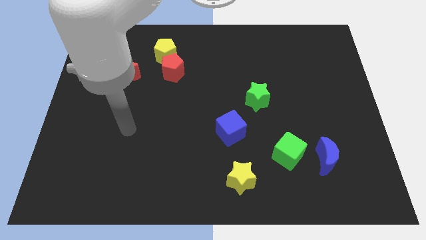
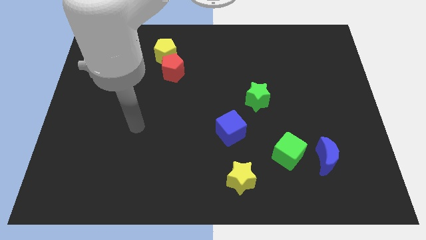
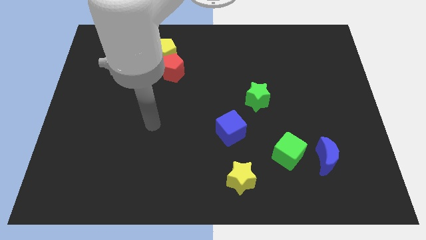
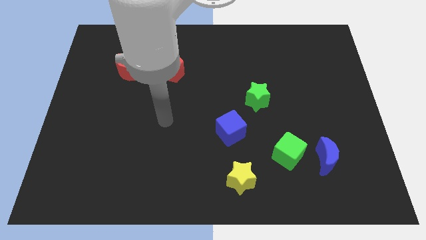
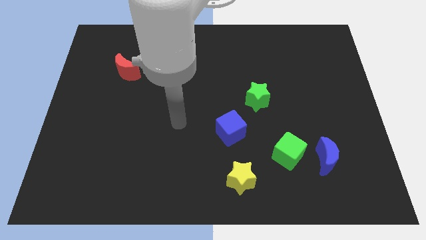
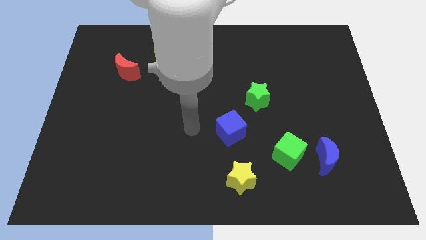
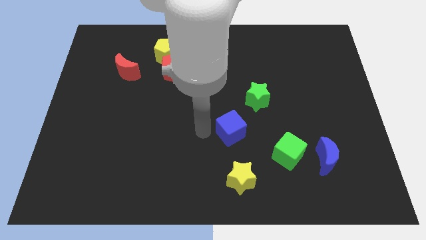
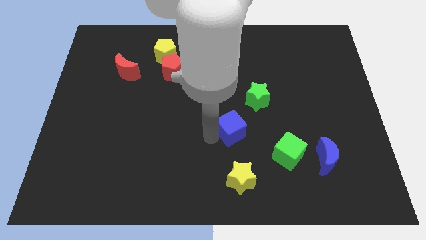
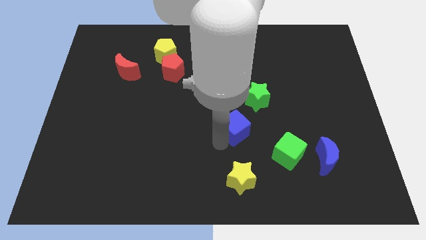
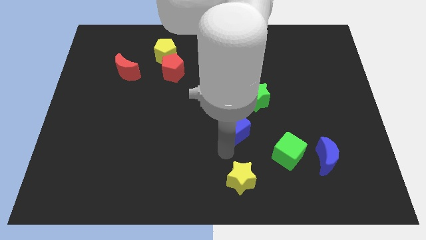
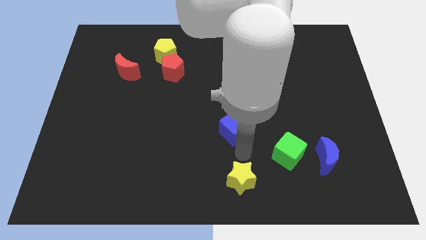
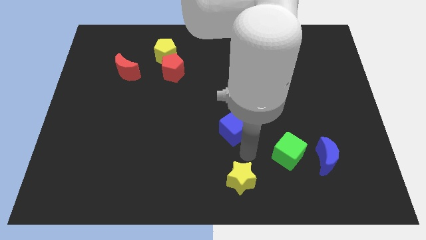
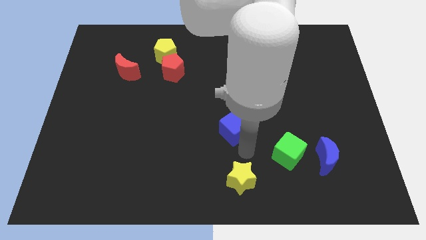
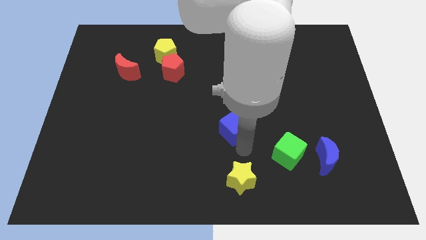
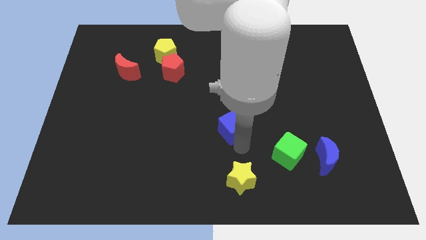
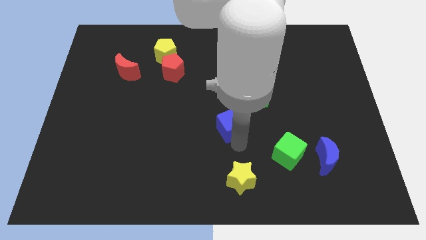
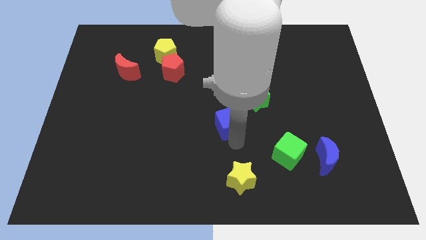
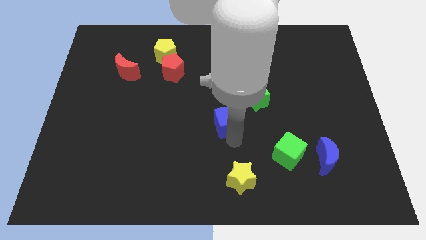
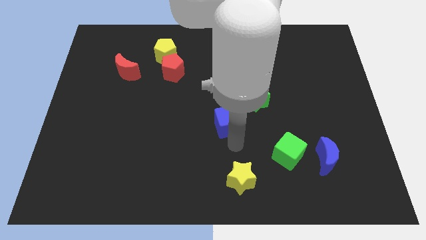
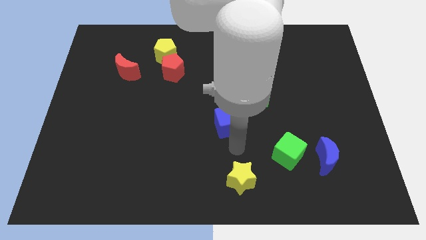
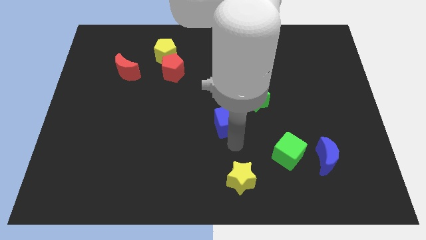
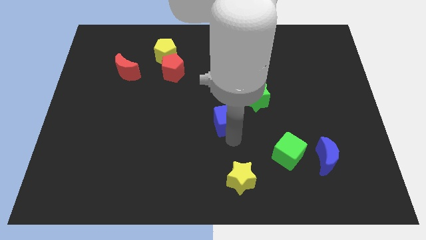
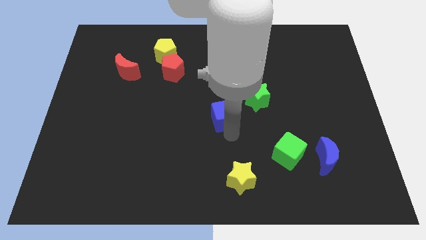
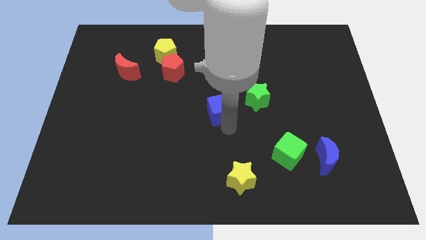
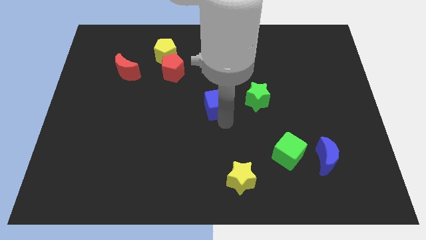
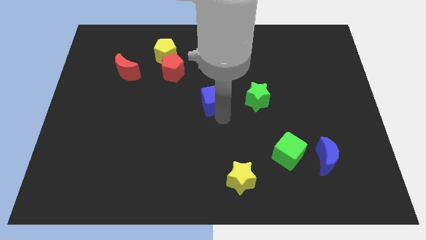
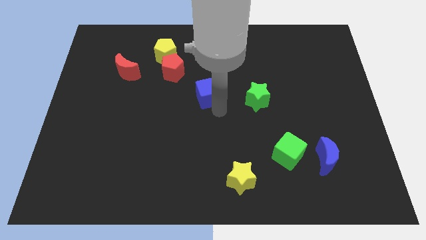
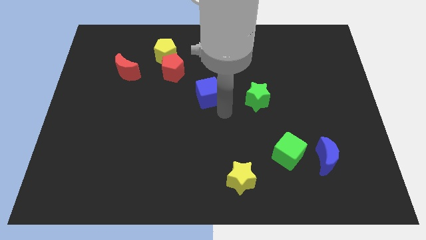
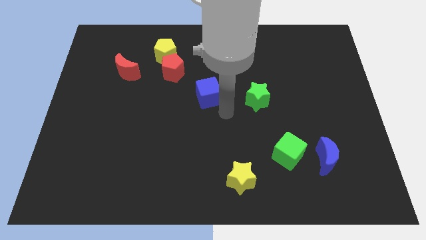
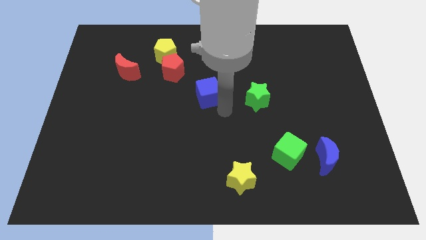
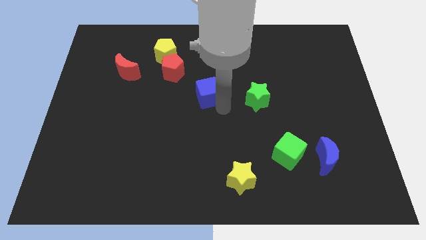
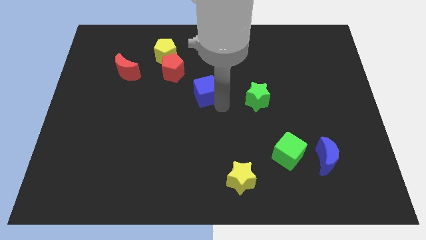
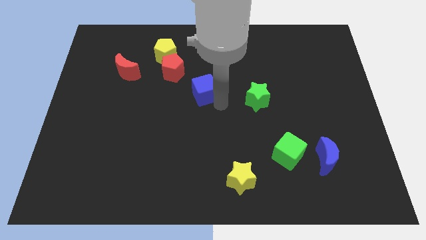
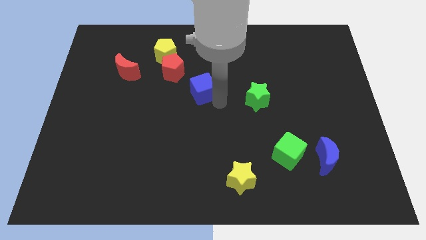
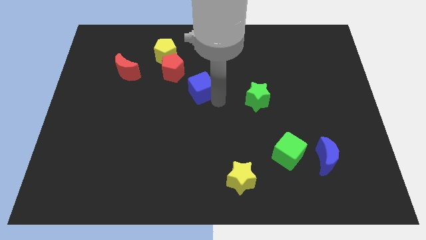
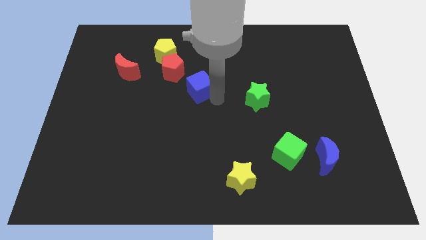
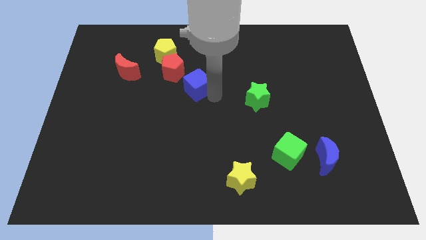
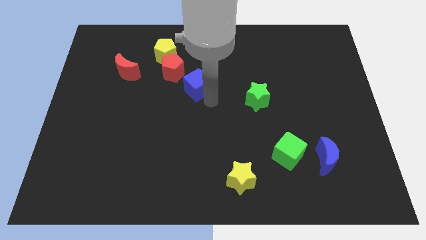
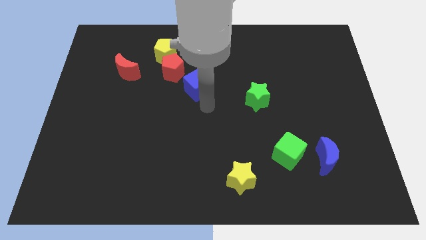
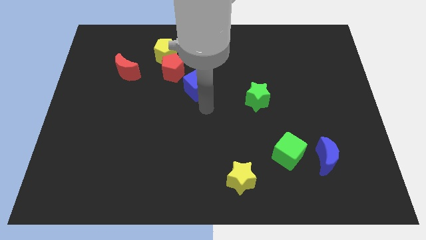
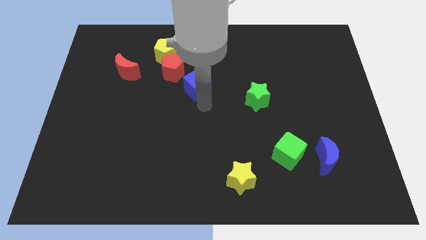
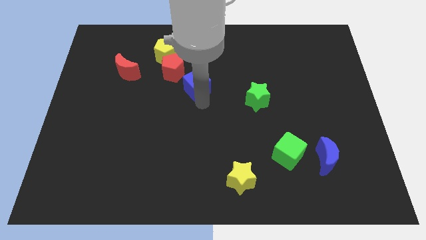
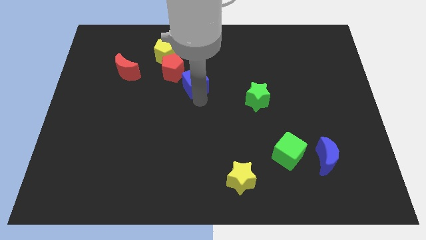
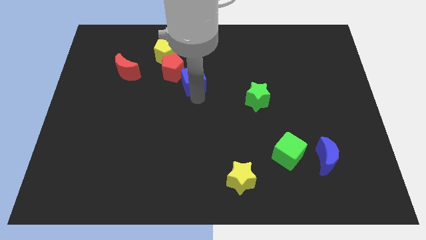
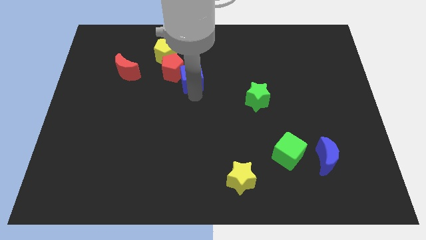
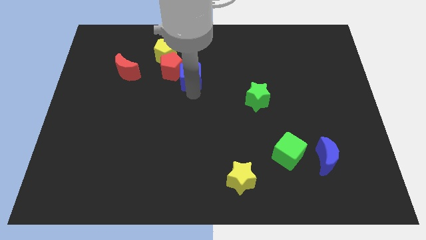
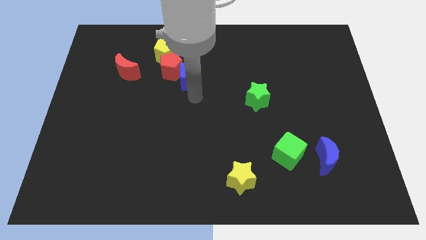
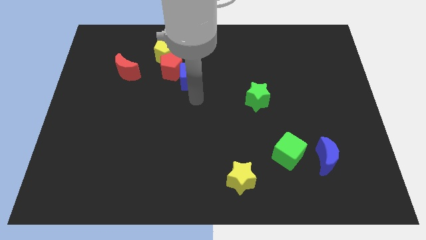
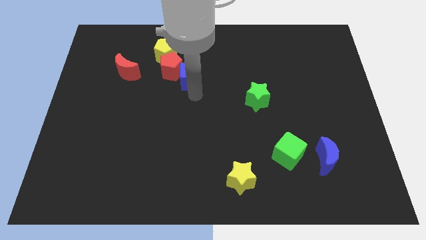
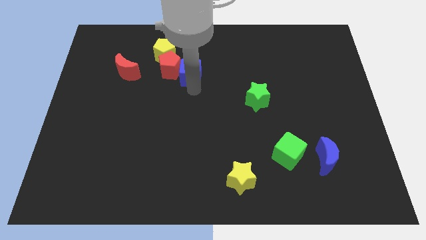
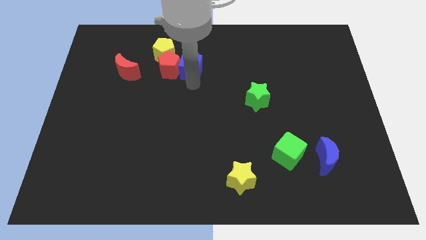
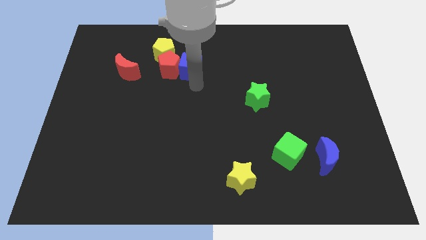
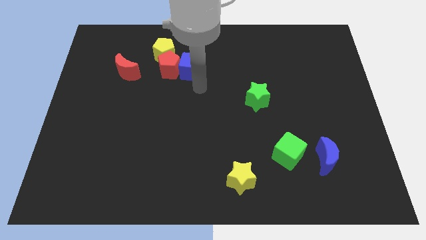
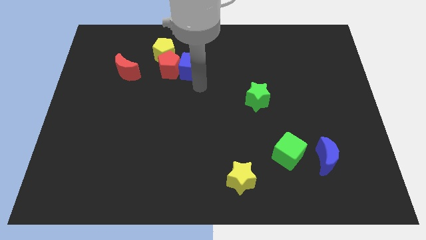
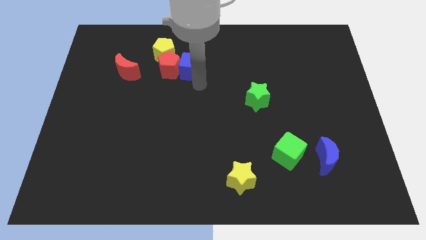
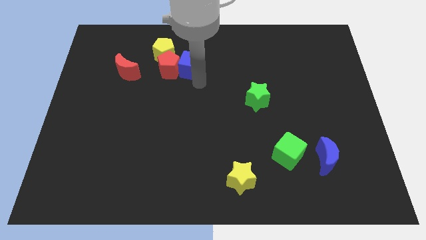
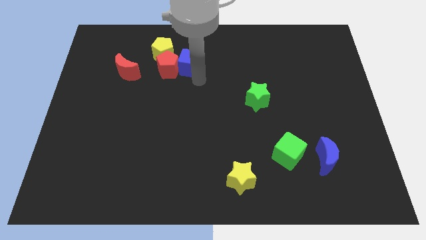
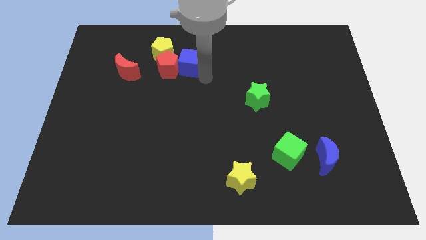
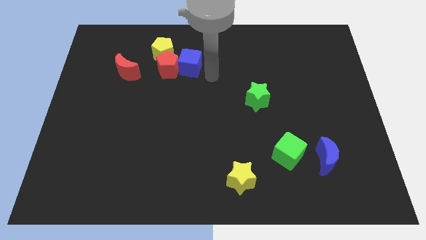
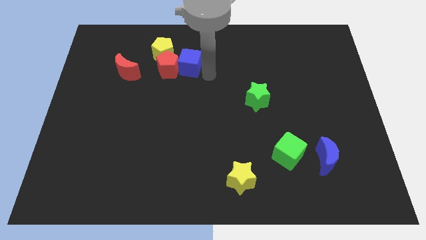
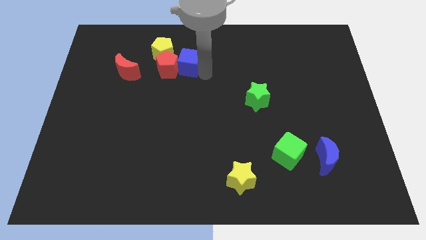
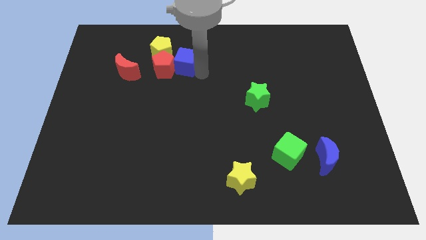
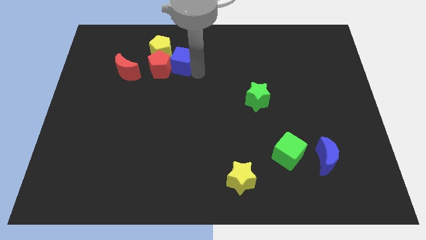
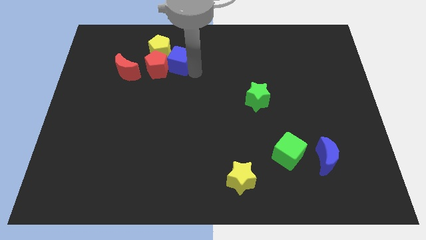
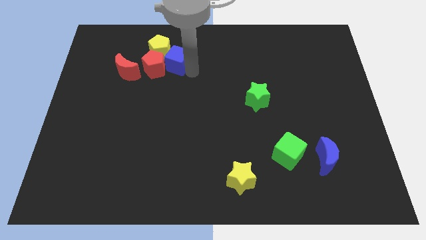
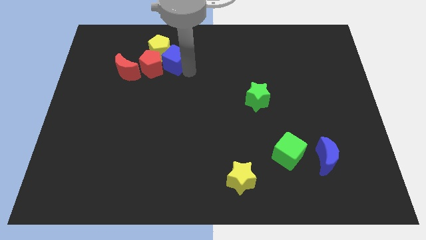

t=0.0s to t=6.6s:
put the blue cube towards the yellow pentagon

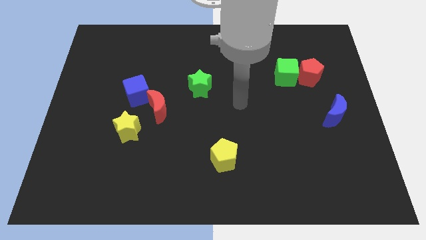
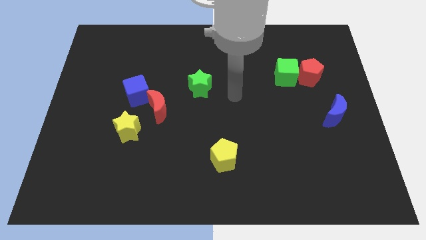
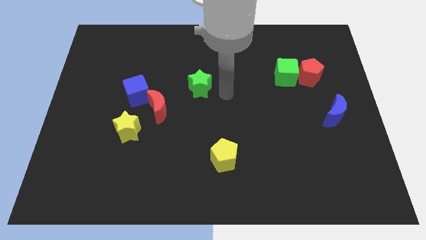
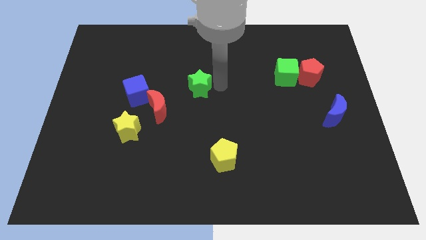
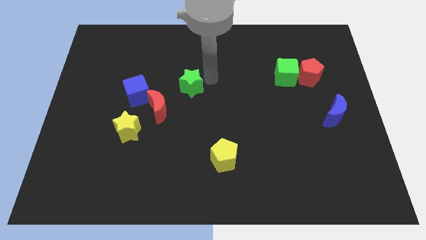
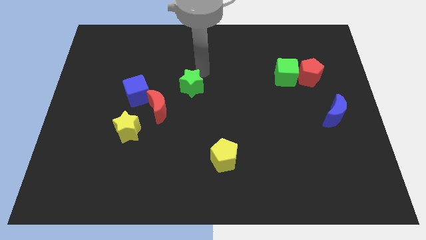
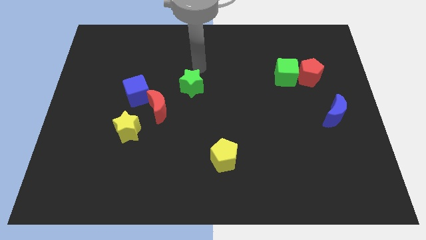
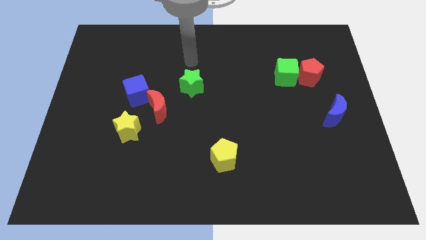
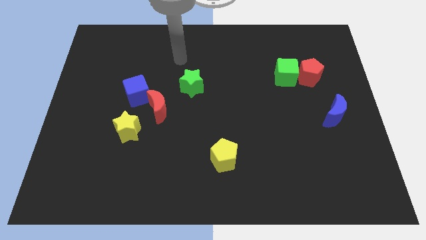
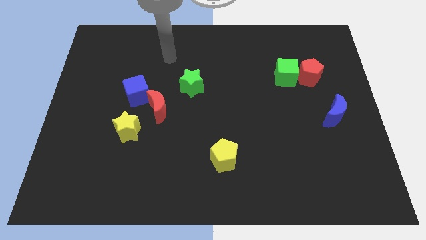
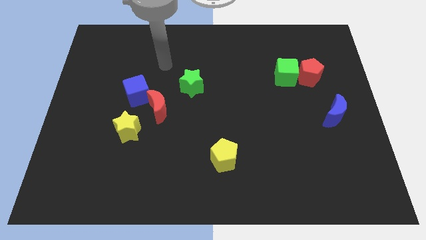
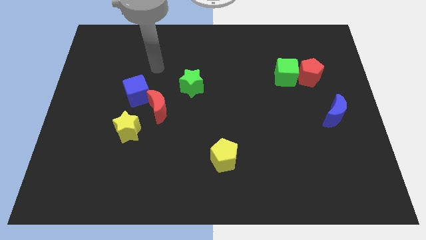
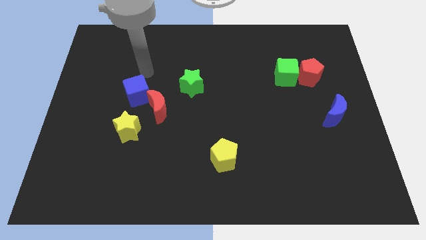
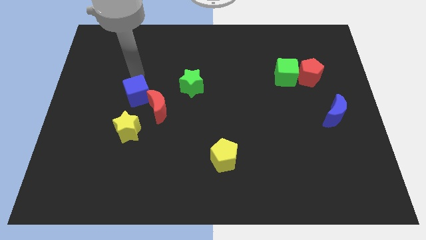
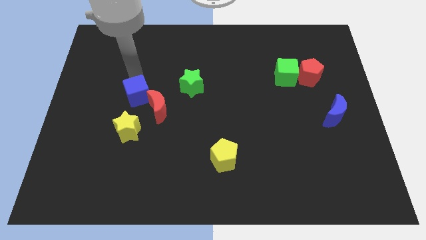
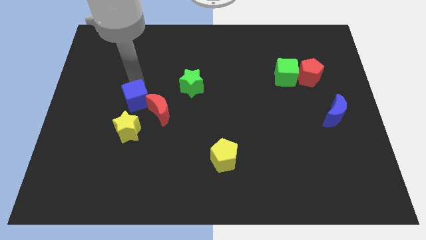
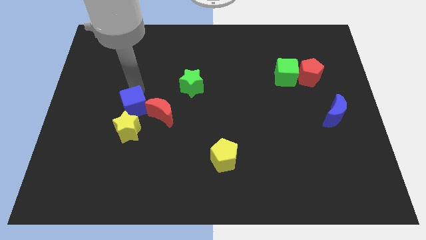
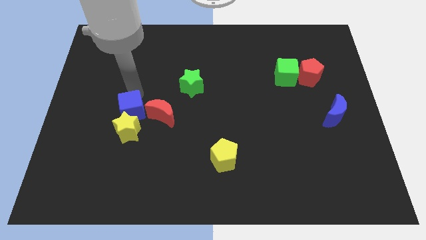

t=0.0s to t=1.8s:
slide the blue cube next to the yellow star
